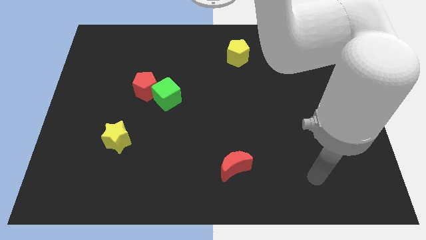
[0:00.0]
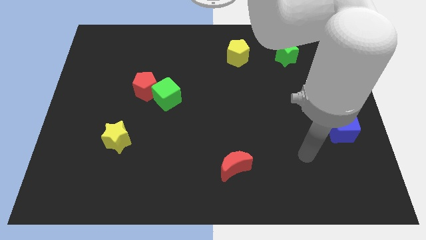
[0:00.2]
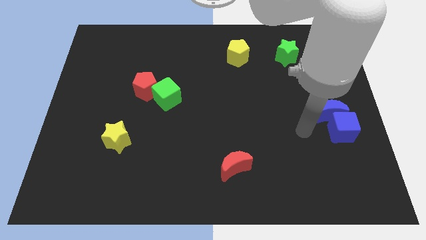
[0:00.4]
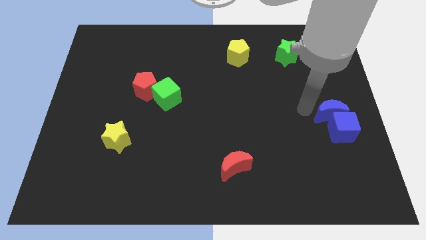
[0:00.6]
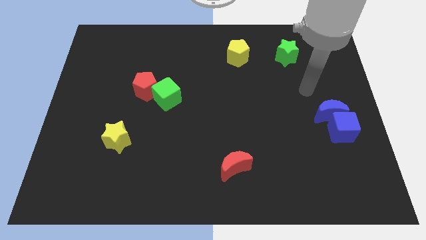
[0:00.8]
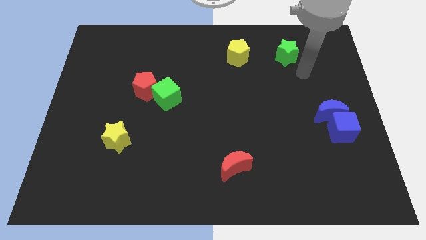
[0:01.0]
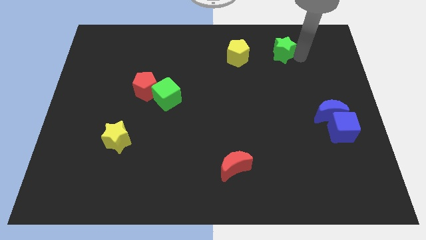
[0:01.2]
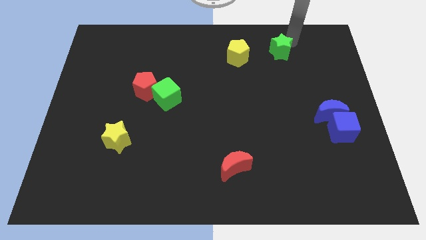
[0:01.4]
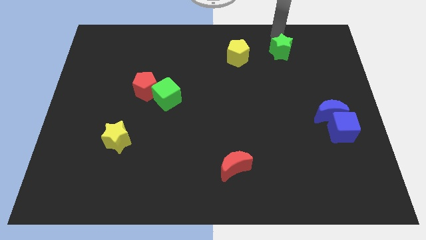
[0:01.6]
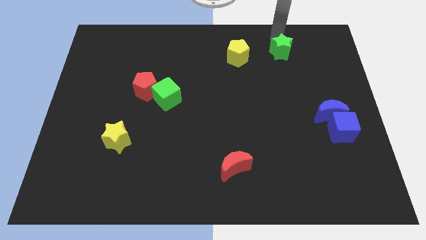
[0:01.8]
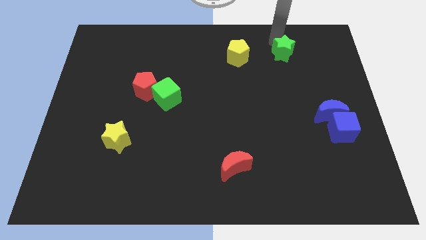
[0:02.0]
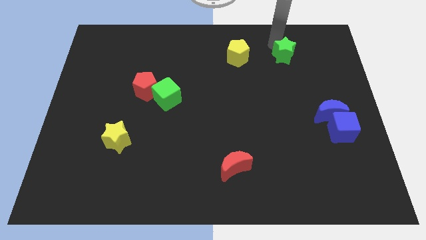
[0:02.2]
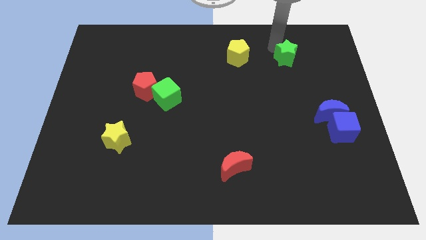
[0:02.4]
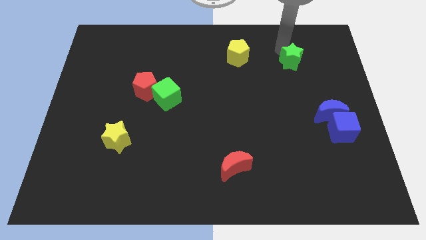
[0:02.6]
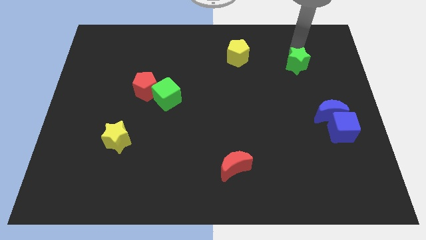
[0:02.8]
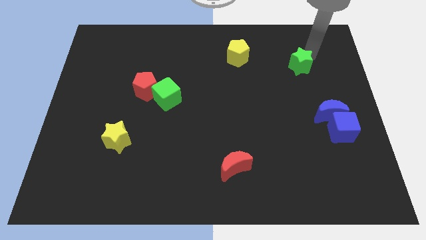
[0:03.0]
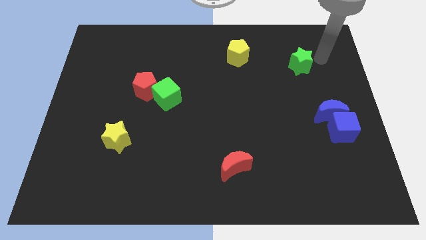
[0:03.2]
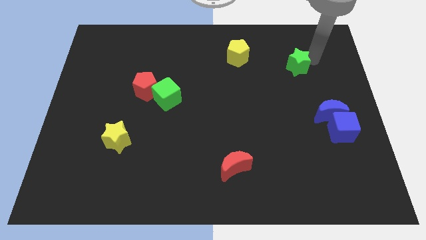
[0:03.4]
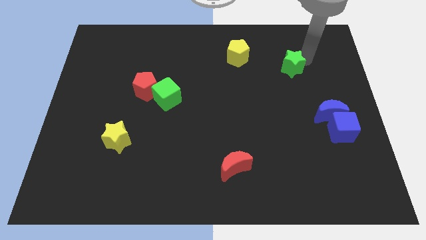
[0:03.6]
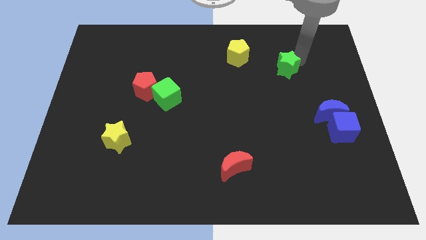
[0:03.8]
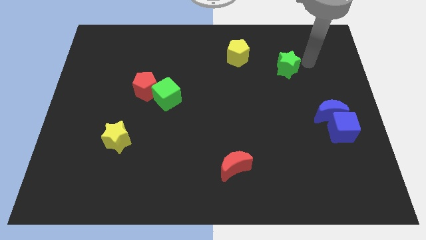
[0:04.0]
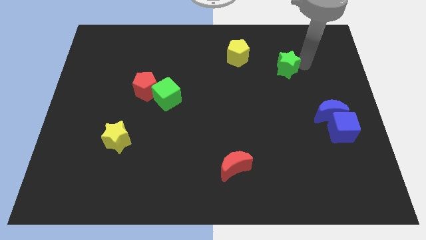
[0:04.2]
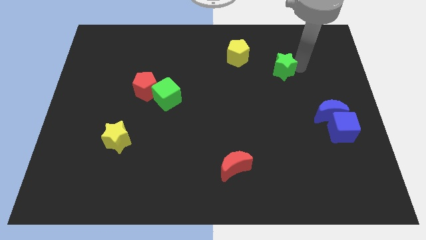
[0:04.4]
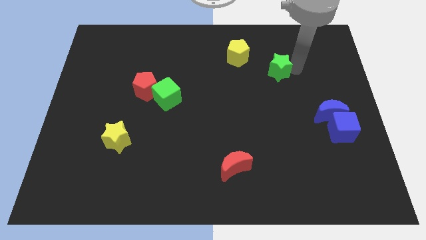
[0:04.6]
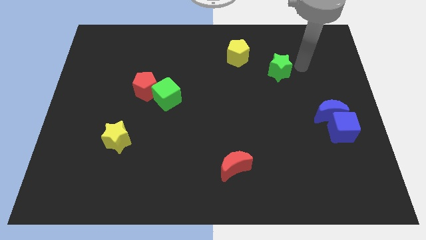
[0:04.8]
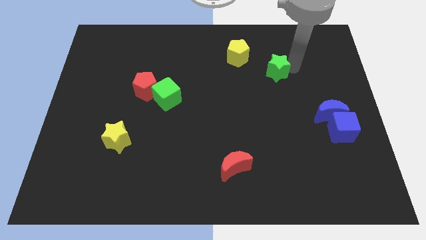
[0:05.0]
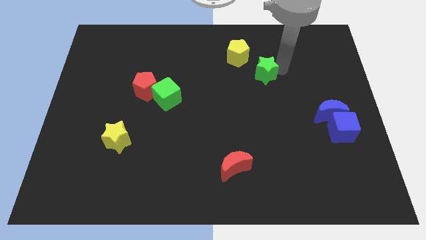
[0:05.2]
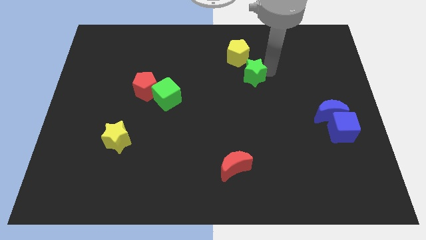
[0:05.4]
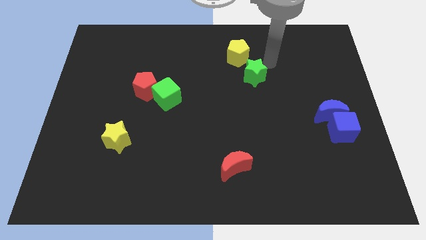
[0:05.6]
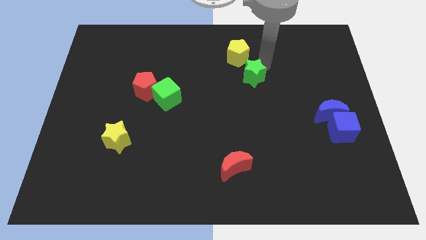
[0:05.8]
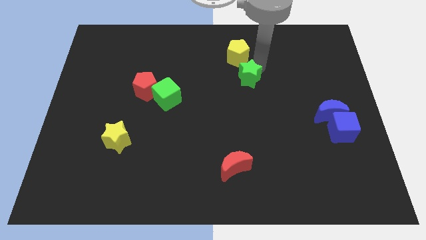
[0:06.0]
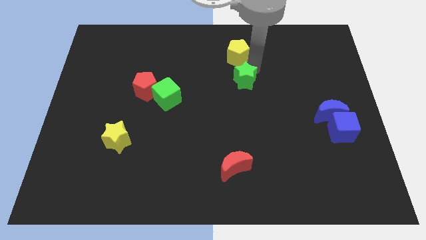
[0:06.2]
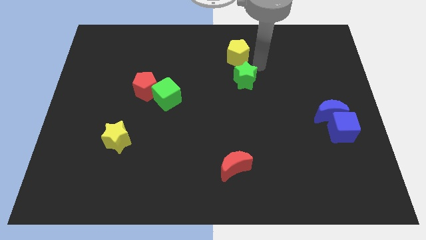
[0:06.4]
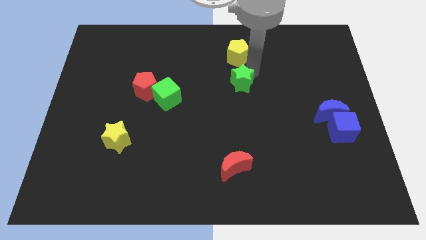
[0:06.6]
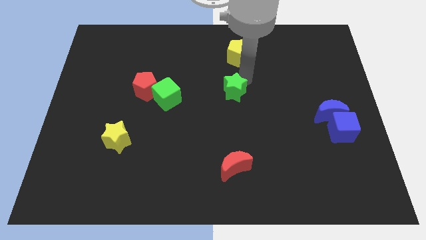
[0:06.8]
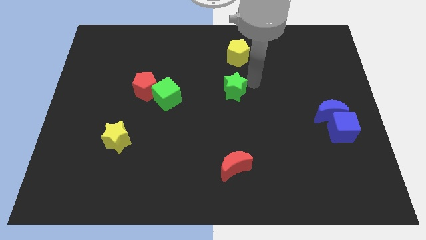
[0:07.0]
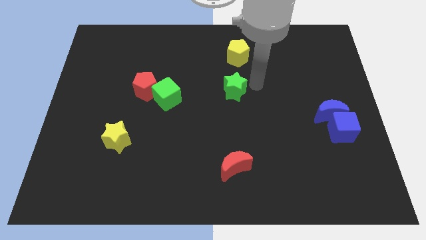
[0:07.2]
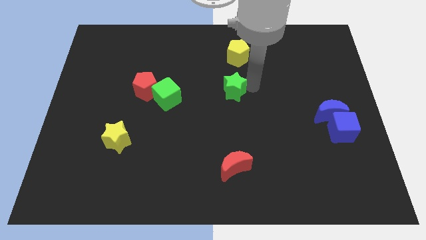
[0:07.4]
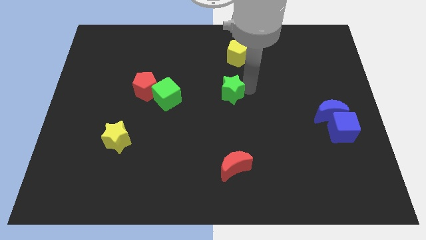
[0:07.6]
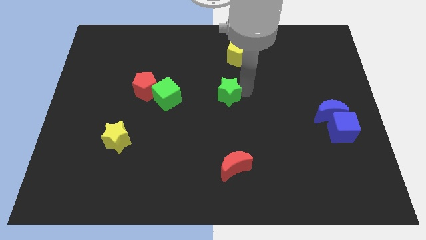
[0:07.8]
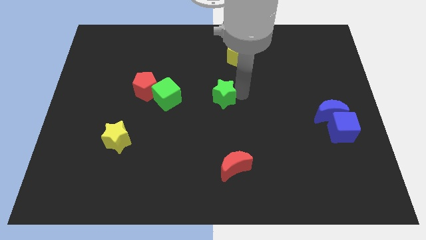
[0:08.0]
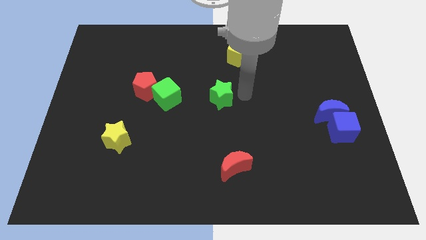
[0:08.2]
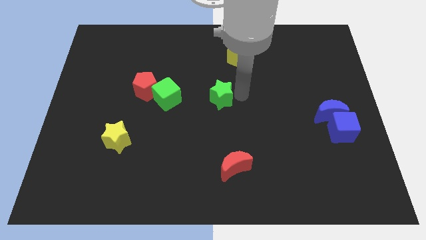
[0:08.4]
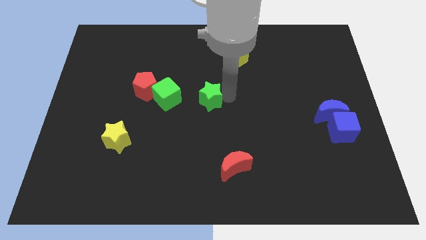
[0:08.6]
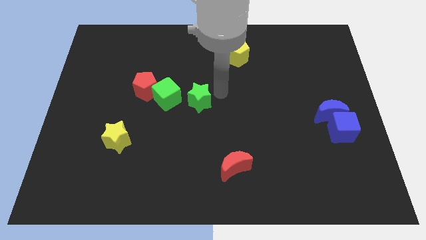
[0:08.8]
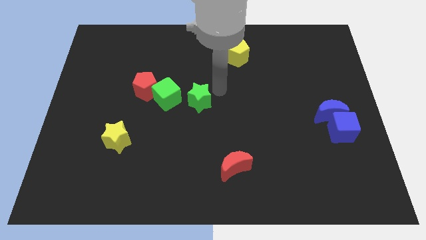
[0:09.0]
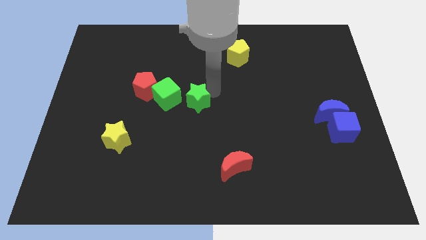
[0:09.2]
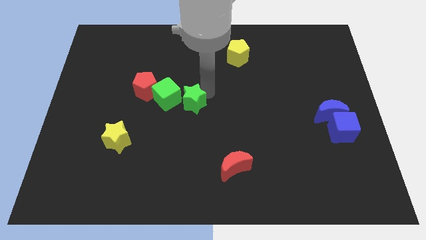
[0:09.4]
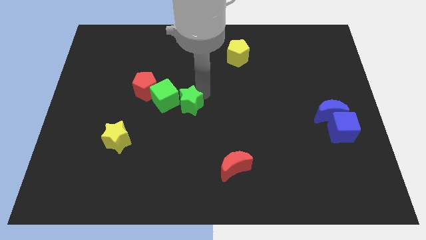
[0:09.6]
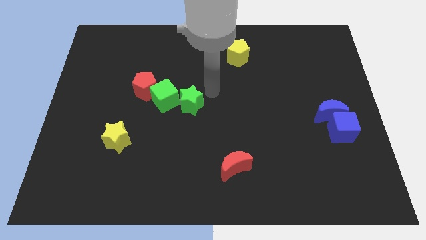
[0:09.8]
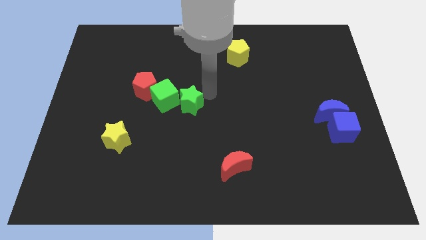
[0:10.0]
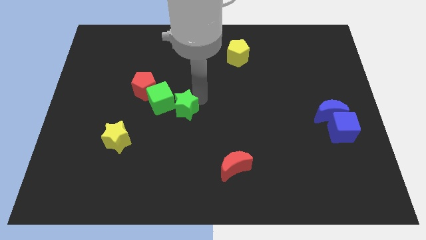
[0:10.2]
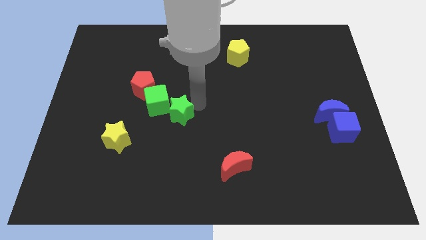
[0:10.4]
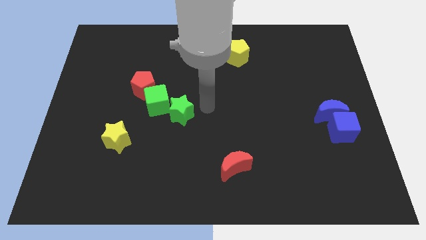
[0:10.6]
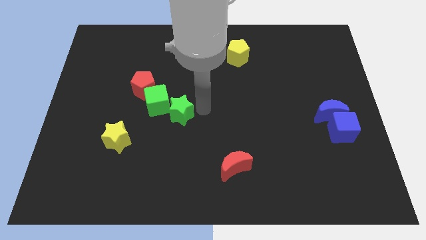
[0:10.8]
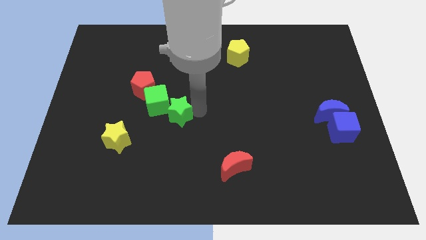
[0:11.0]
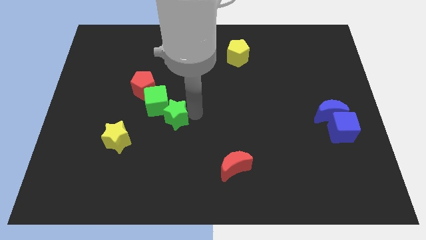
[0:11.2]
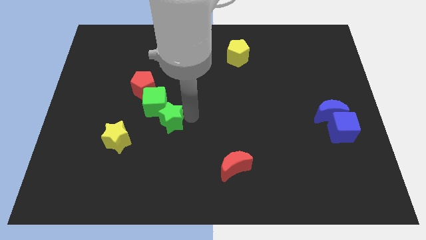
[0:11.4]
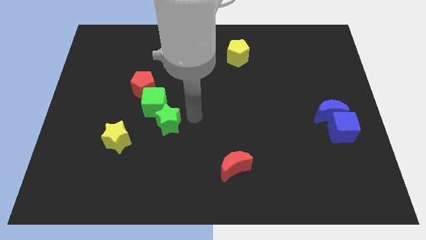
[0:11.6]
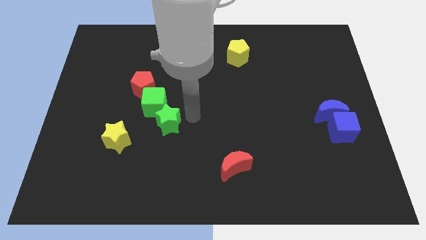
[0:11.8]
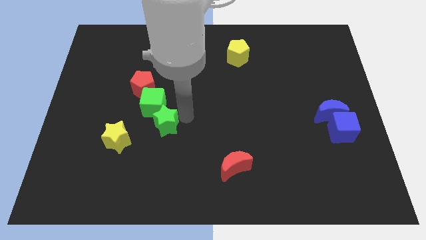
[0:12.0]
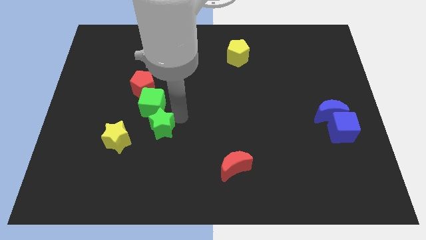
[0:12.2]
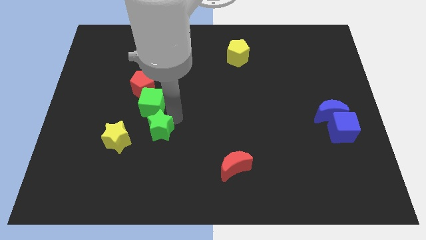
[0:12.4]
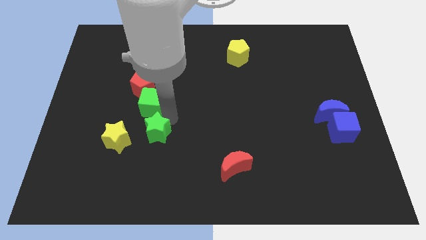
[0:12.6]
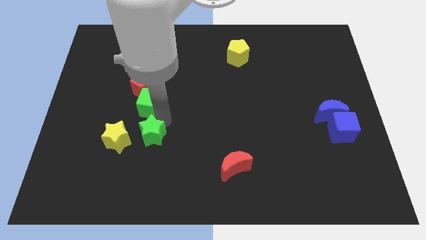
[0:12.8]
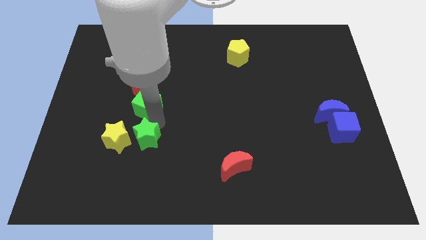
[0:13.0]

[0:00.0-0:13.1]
push the green star close to the yellow star

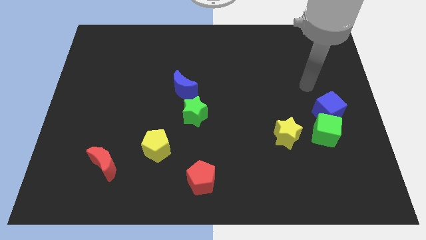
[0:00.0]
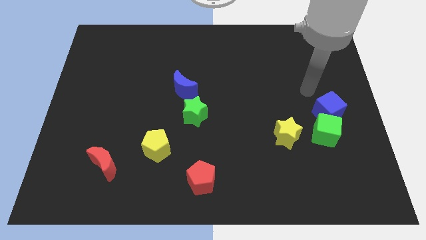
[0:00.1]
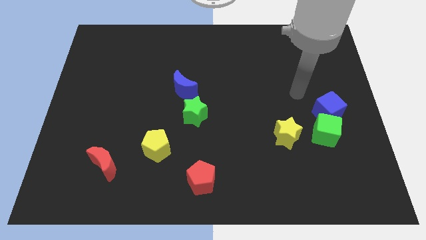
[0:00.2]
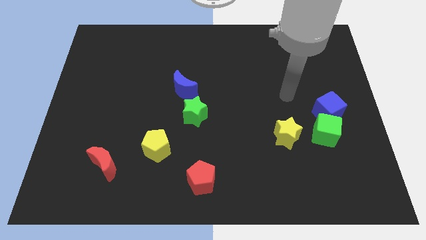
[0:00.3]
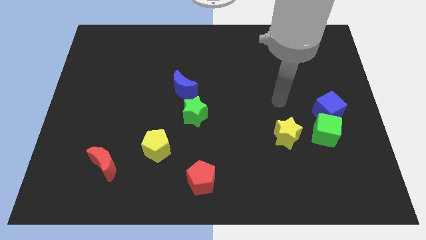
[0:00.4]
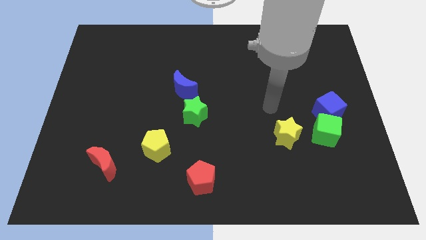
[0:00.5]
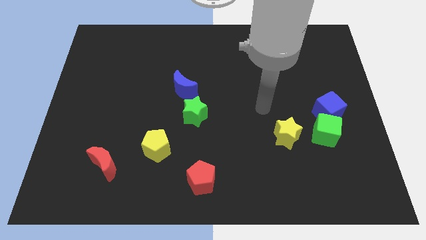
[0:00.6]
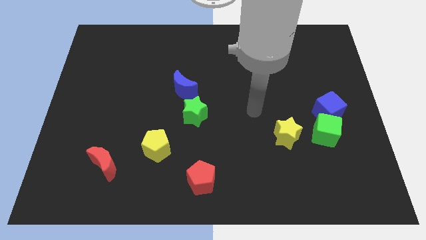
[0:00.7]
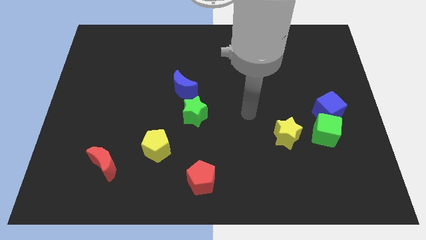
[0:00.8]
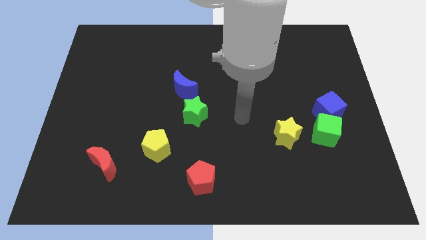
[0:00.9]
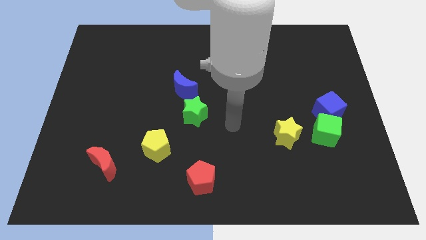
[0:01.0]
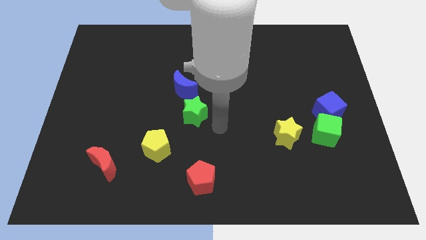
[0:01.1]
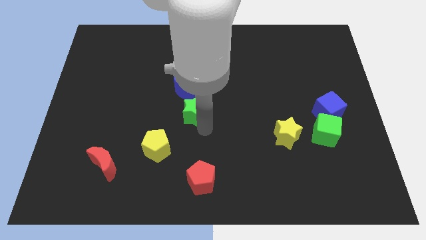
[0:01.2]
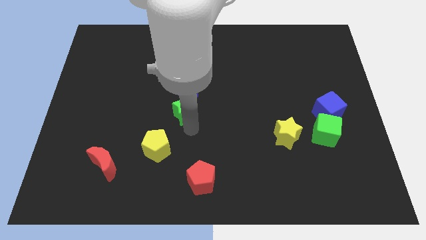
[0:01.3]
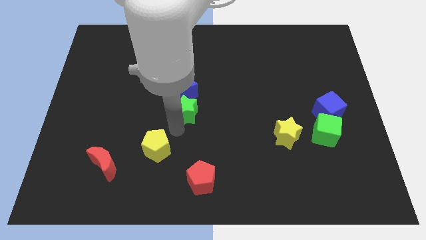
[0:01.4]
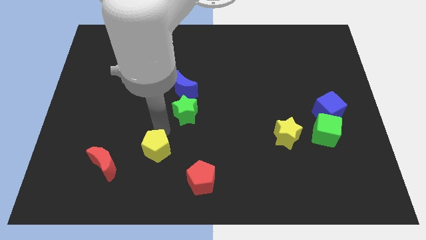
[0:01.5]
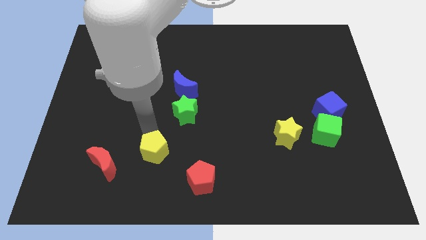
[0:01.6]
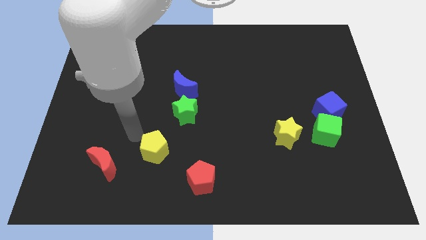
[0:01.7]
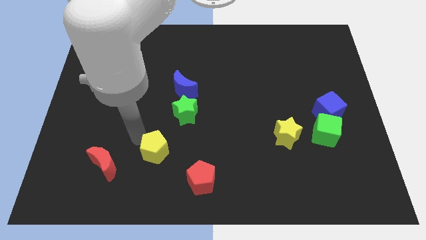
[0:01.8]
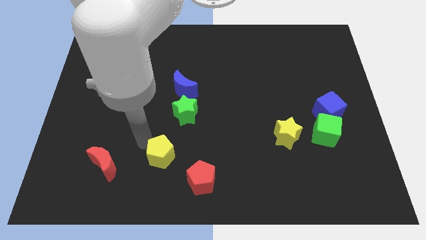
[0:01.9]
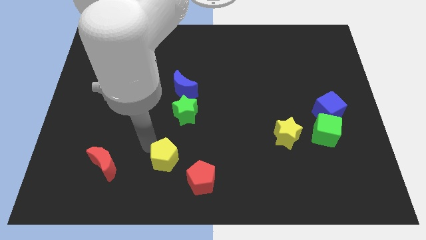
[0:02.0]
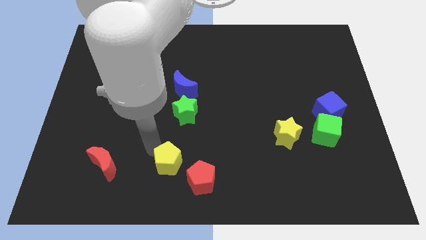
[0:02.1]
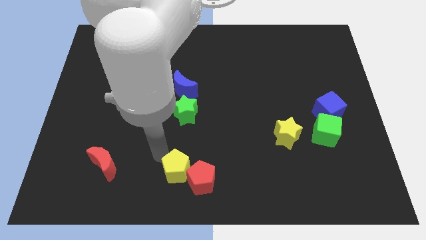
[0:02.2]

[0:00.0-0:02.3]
push the yellow pentagon close to the red pentagon
